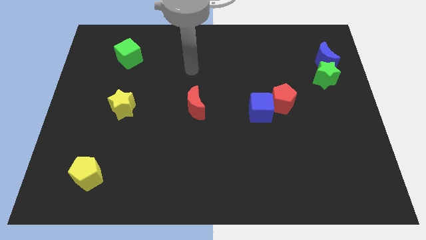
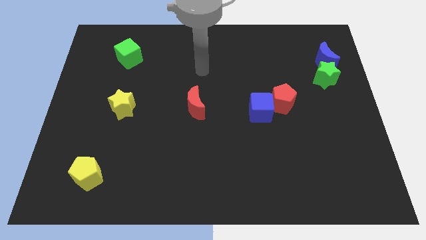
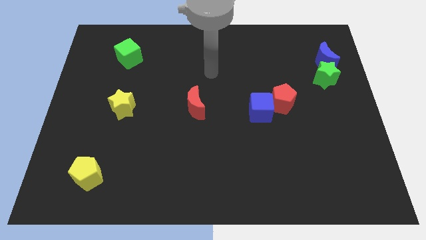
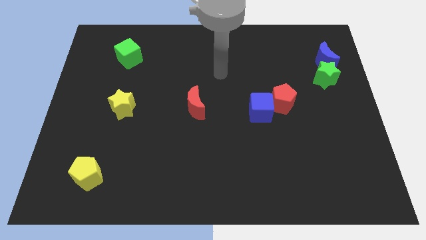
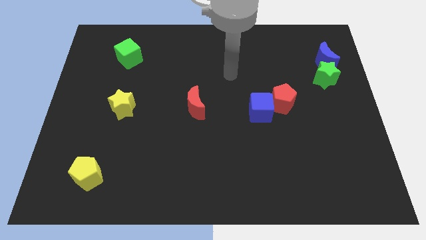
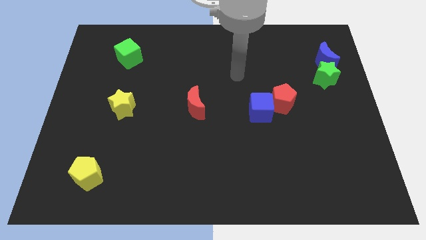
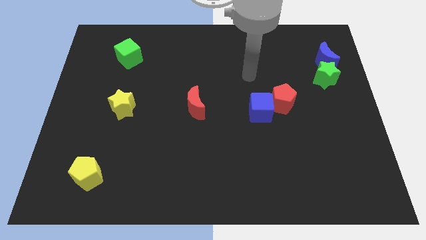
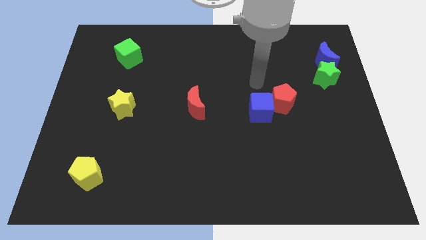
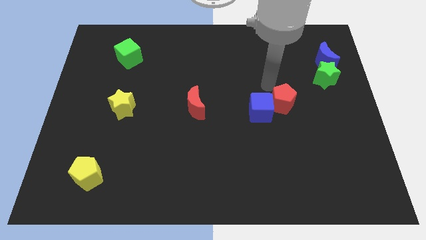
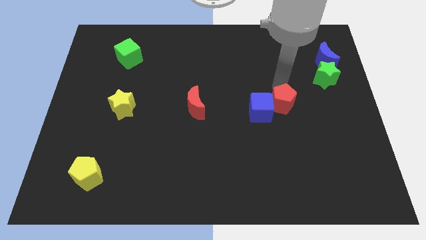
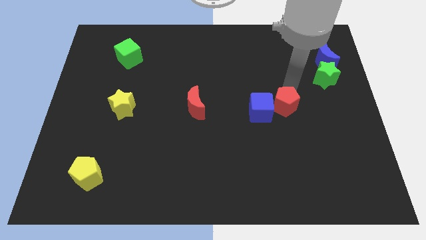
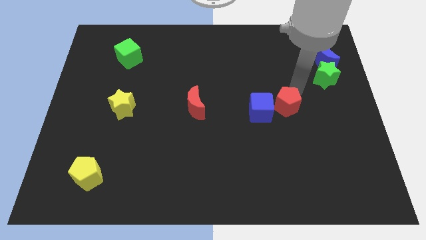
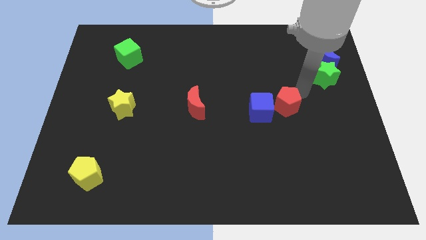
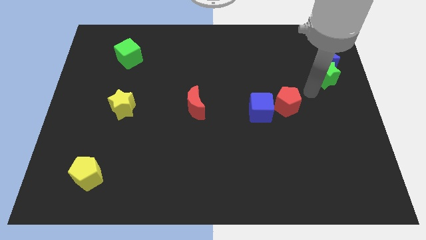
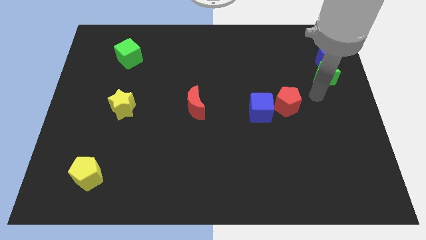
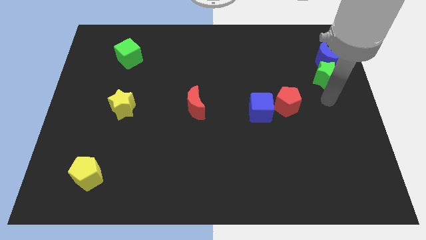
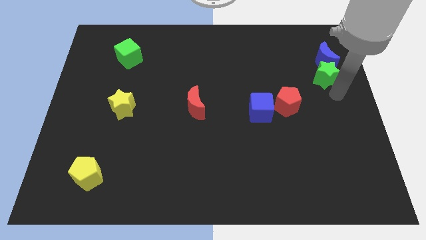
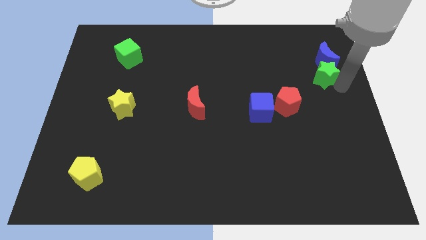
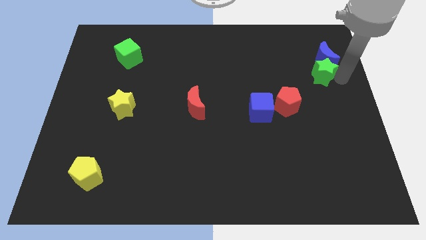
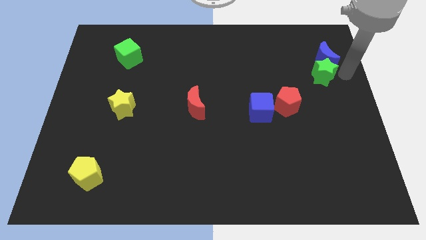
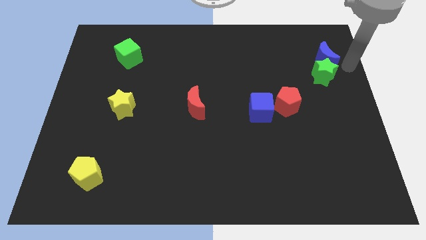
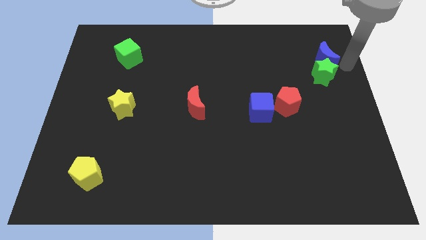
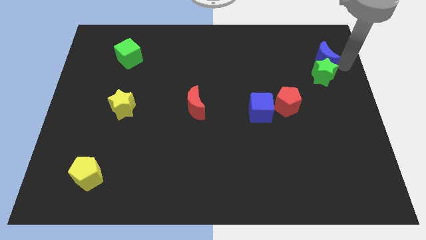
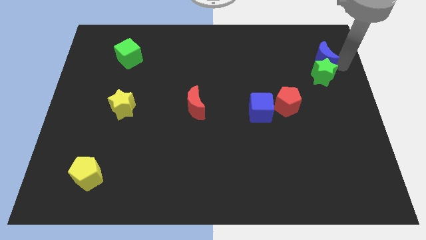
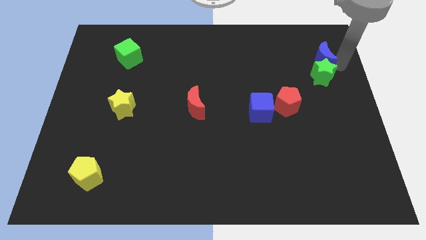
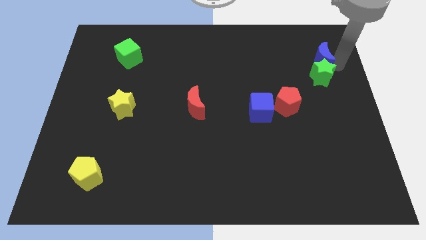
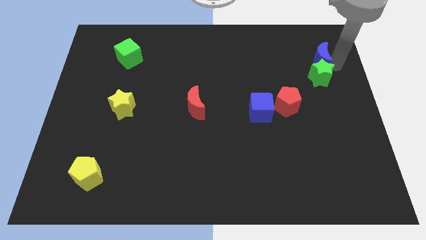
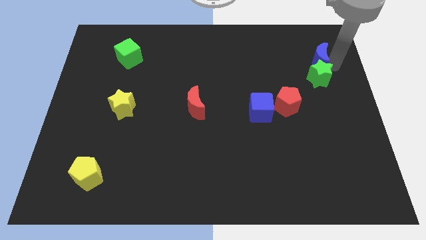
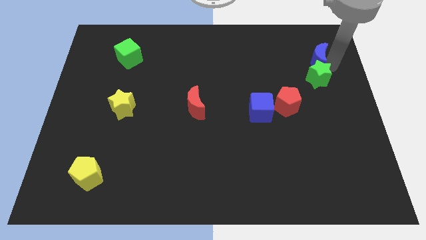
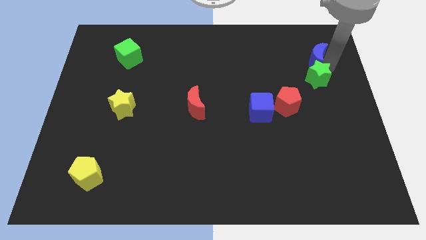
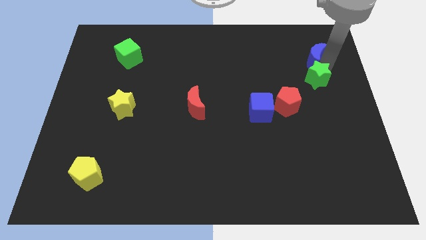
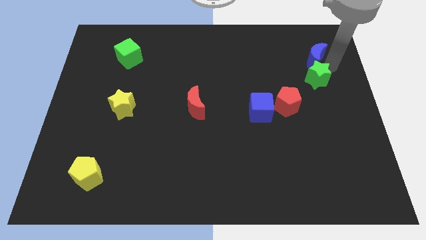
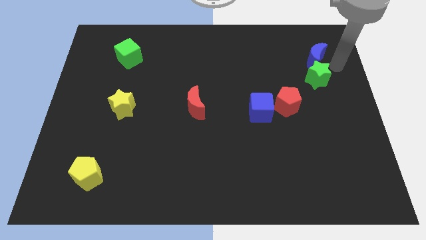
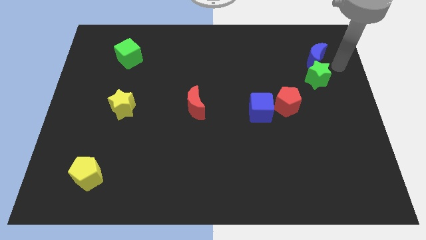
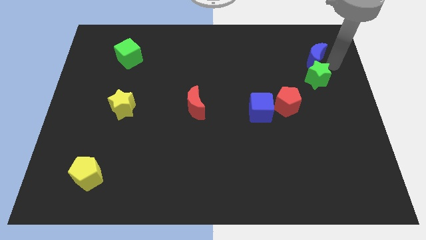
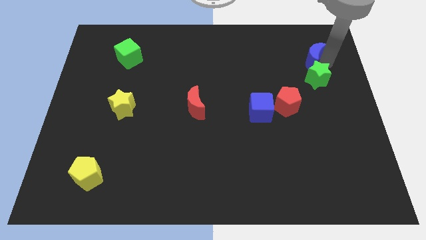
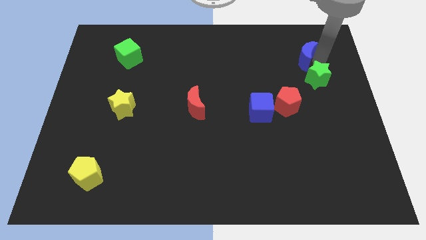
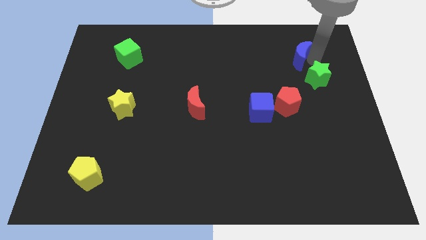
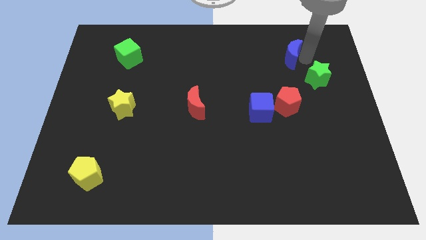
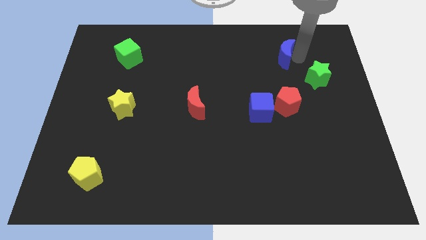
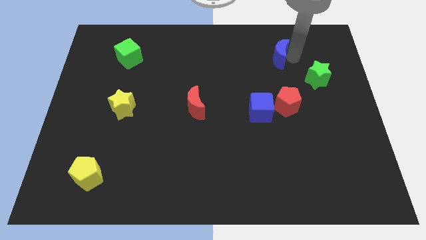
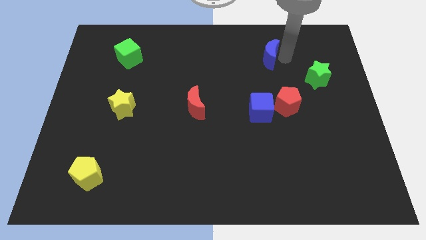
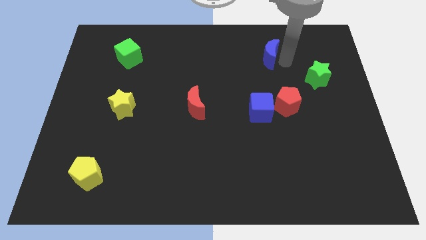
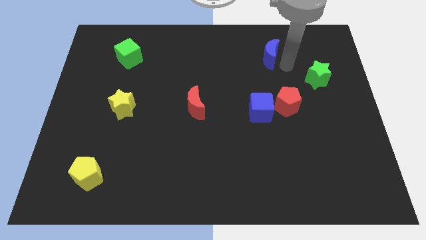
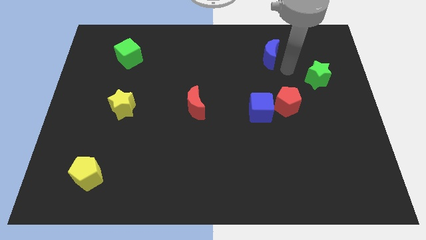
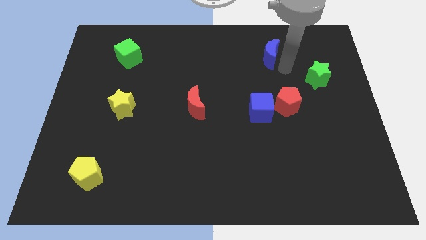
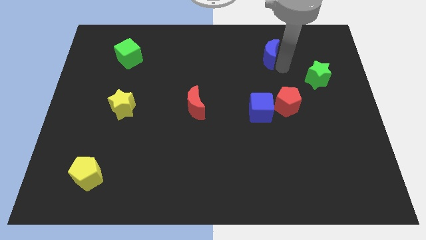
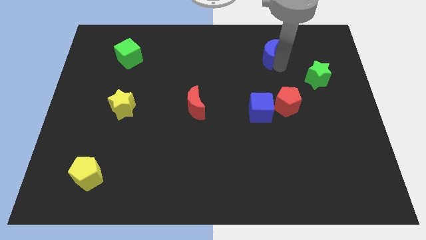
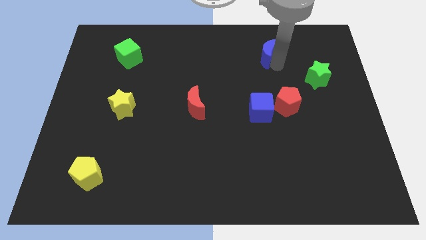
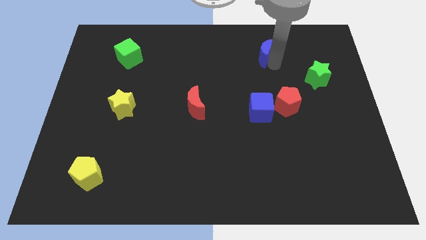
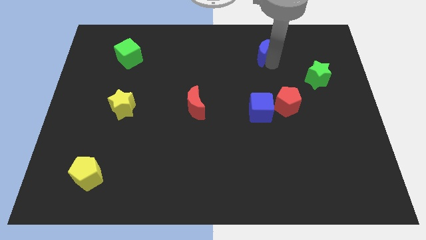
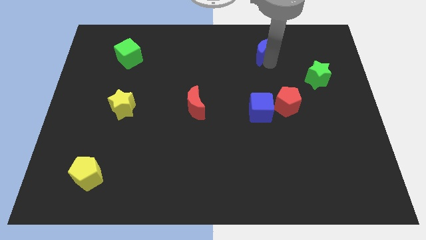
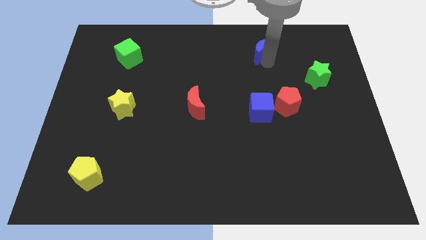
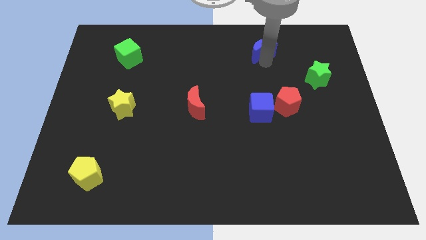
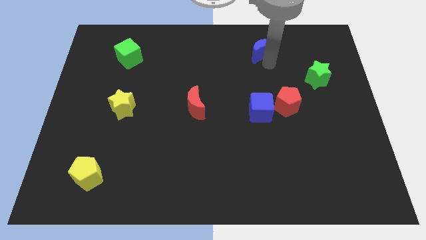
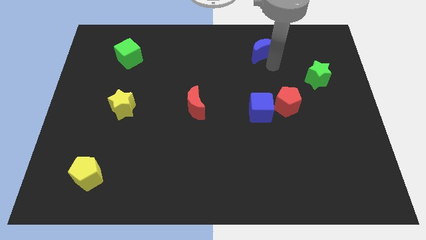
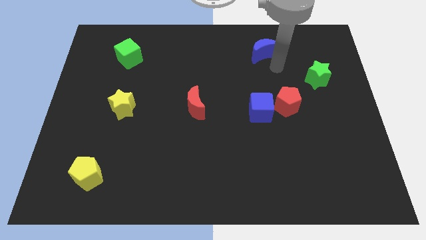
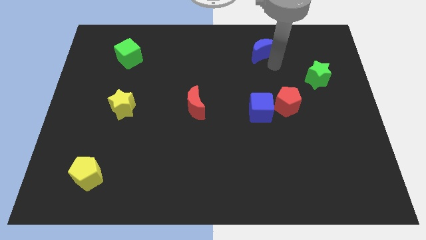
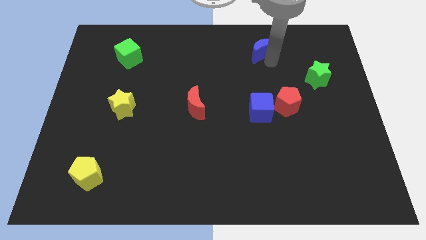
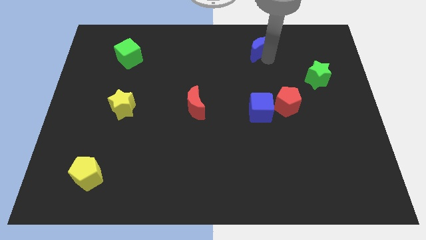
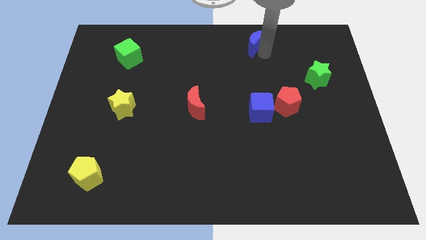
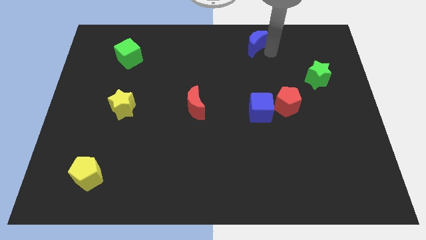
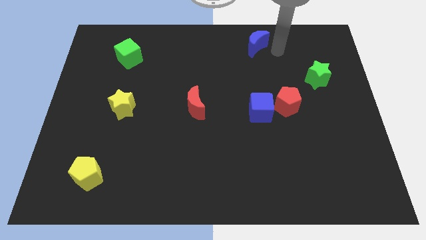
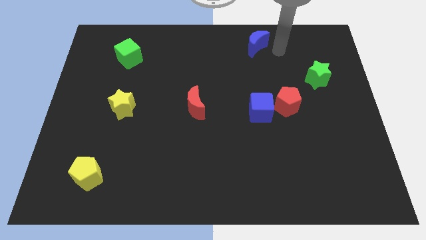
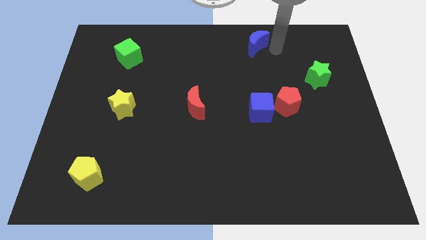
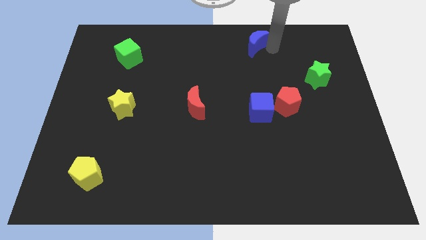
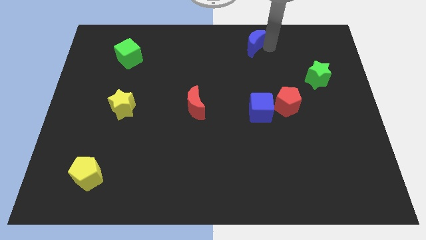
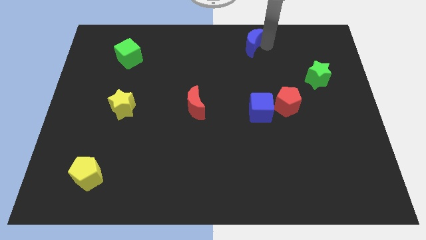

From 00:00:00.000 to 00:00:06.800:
move the blue moon to the top side
